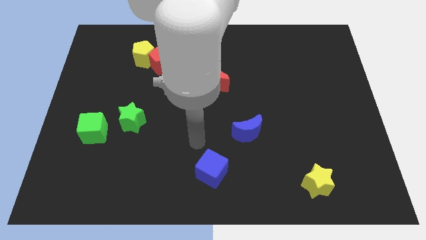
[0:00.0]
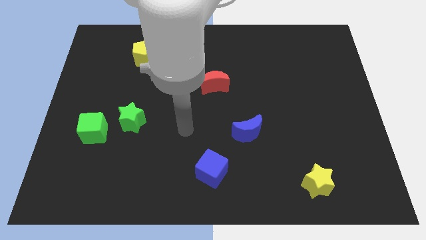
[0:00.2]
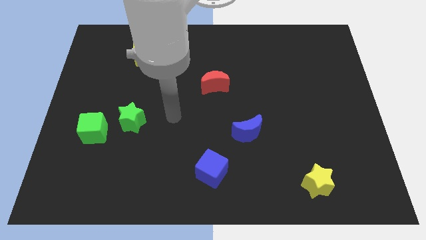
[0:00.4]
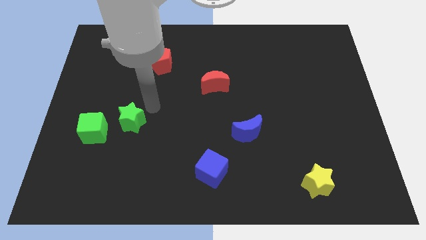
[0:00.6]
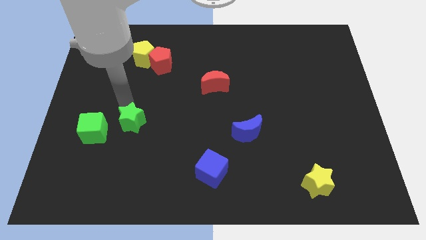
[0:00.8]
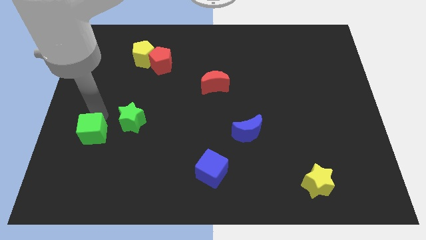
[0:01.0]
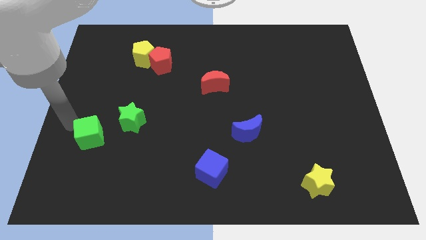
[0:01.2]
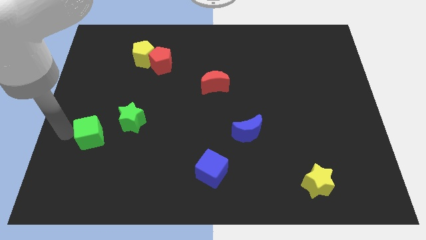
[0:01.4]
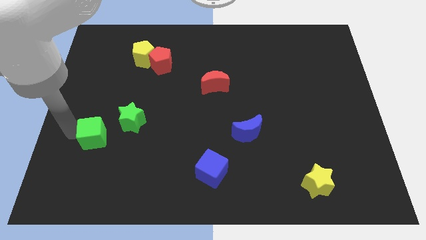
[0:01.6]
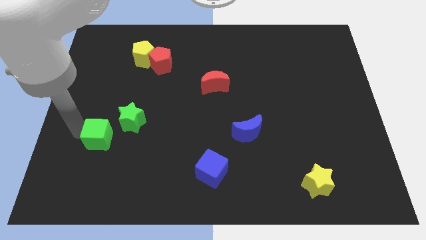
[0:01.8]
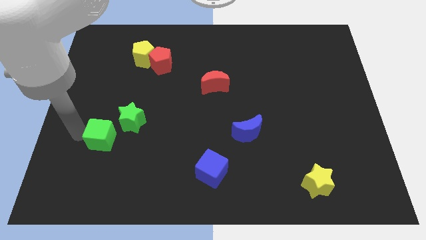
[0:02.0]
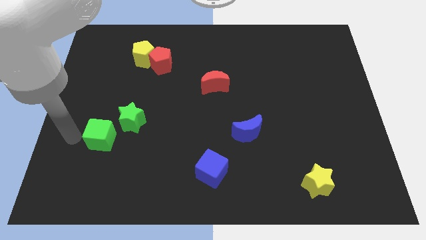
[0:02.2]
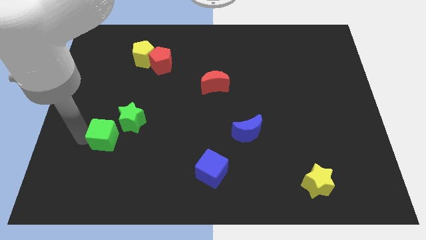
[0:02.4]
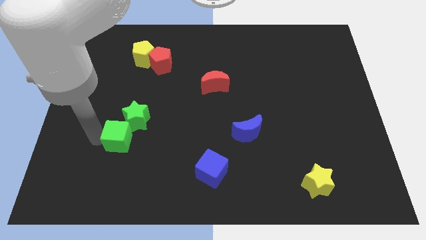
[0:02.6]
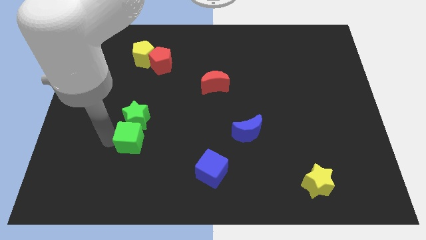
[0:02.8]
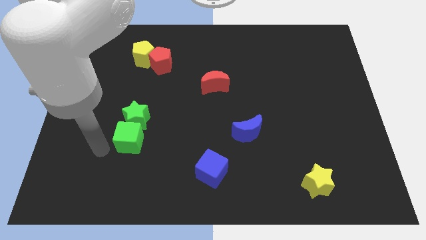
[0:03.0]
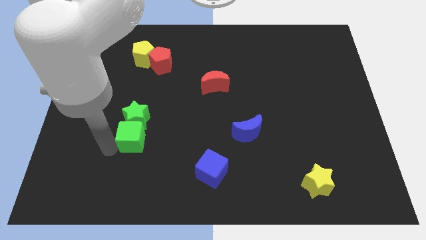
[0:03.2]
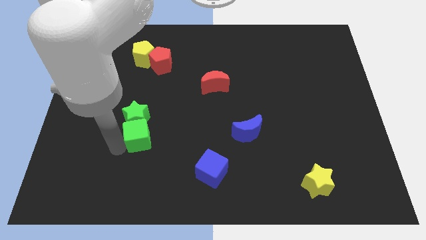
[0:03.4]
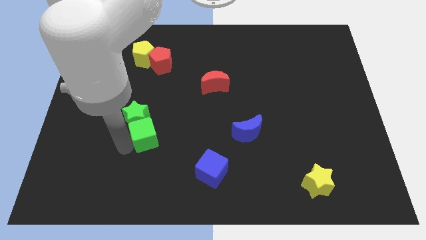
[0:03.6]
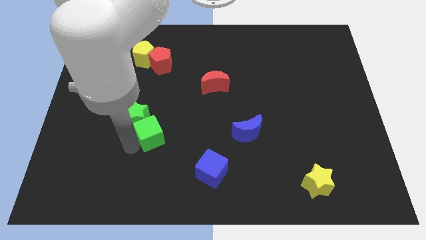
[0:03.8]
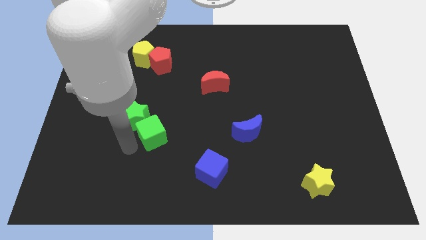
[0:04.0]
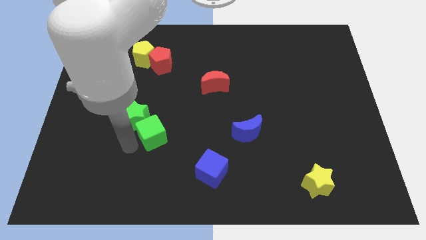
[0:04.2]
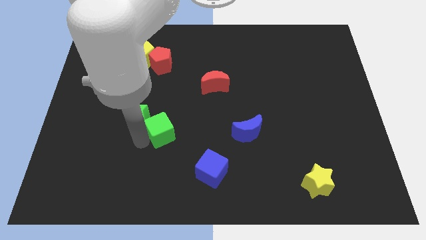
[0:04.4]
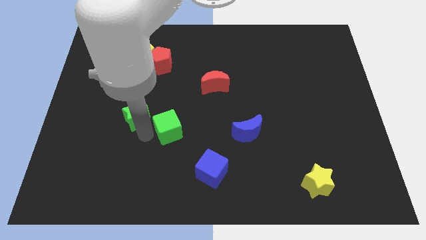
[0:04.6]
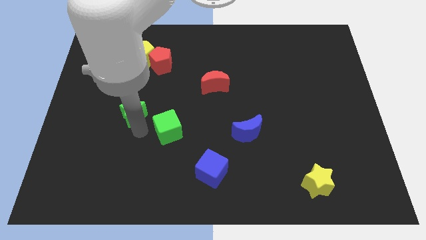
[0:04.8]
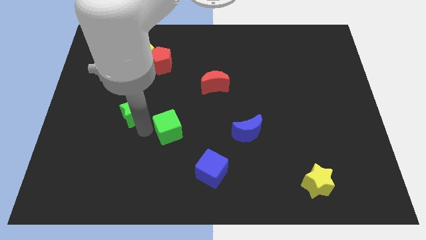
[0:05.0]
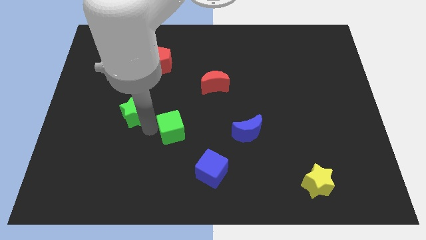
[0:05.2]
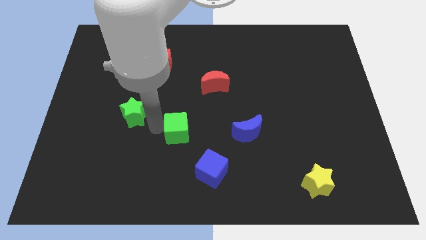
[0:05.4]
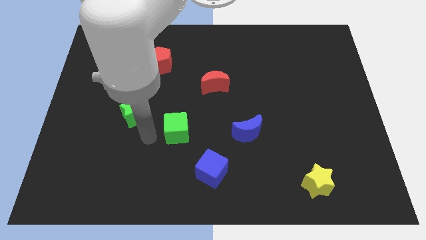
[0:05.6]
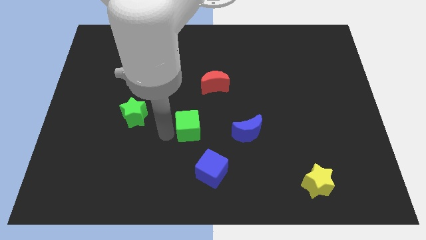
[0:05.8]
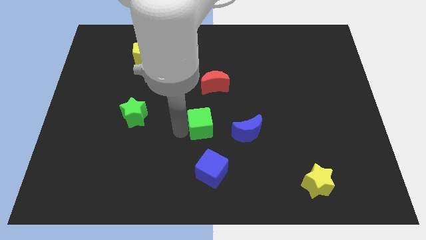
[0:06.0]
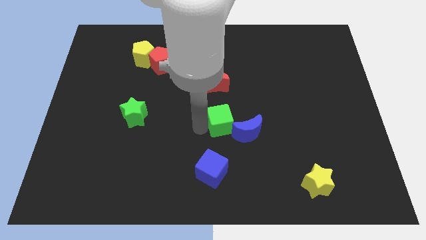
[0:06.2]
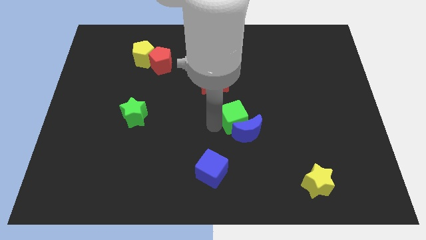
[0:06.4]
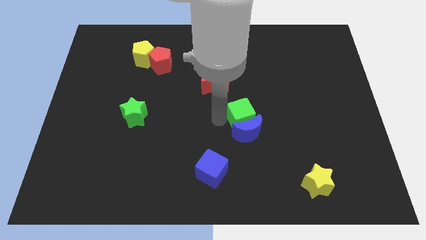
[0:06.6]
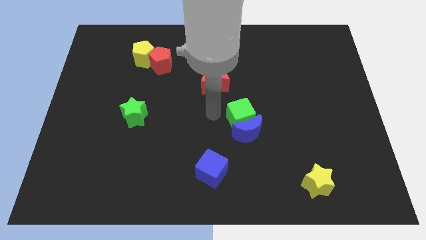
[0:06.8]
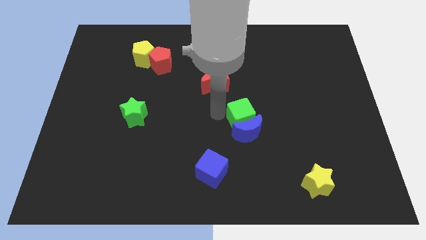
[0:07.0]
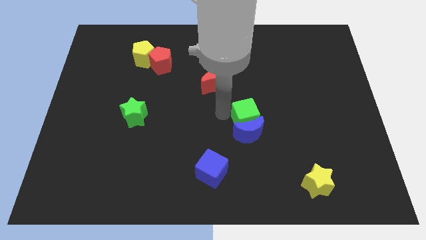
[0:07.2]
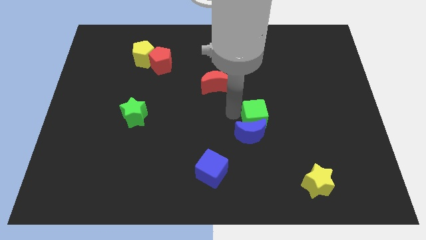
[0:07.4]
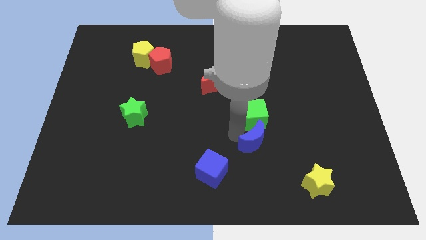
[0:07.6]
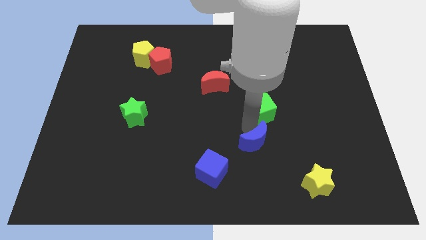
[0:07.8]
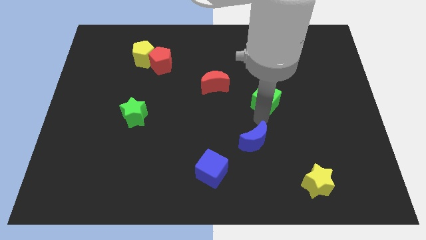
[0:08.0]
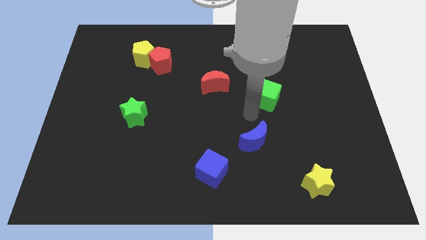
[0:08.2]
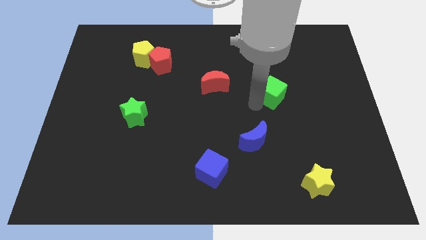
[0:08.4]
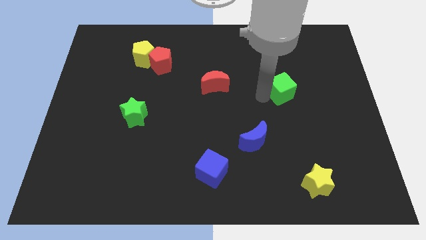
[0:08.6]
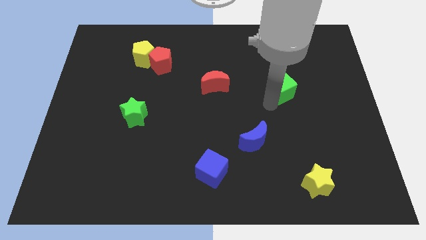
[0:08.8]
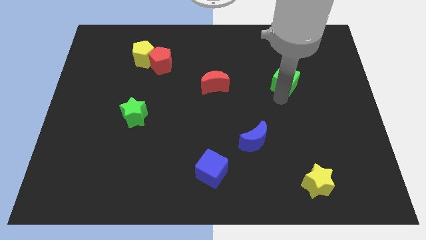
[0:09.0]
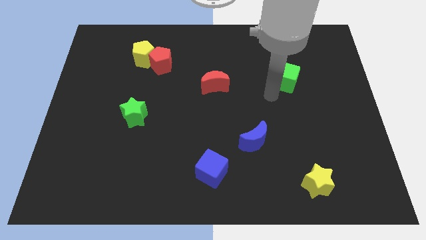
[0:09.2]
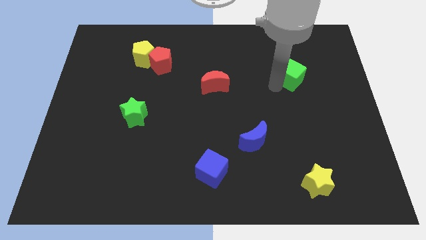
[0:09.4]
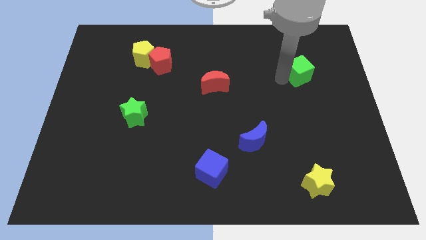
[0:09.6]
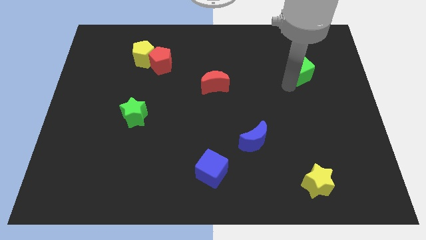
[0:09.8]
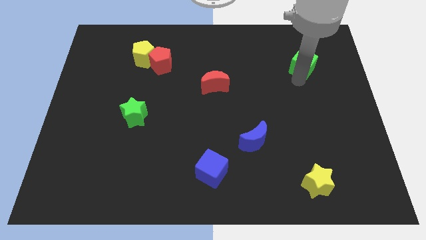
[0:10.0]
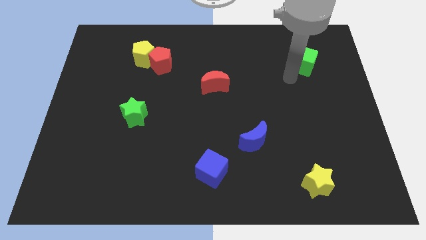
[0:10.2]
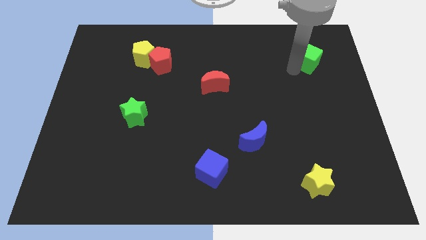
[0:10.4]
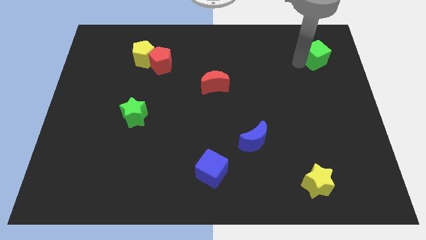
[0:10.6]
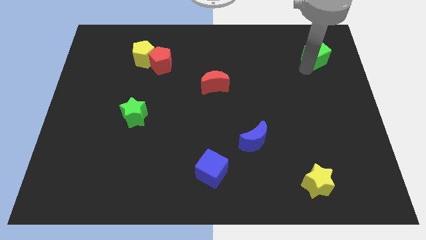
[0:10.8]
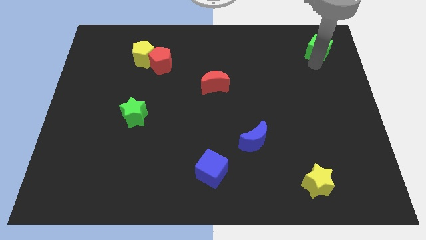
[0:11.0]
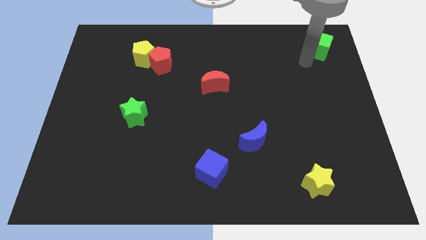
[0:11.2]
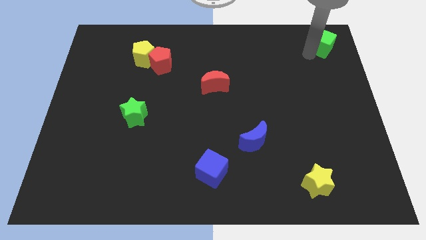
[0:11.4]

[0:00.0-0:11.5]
move the green cube to the top right corner
